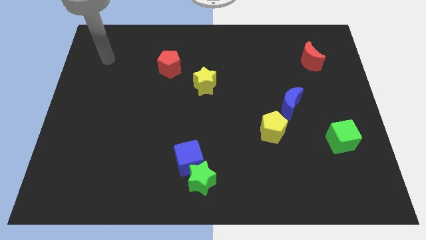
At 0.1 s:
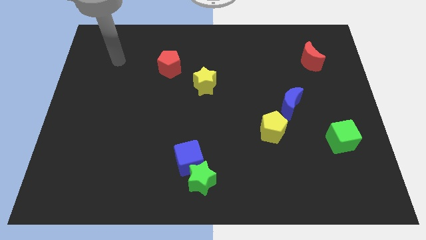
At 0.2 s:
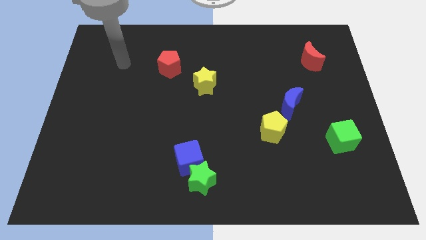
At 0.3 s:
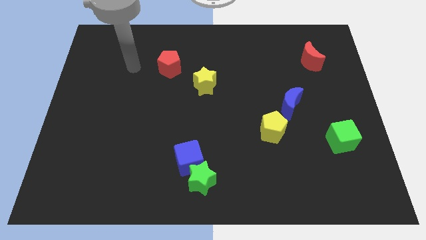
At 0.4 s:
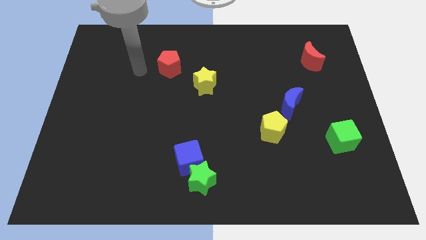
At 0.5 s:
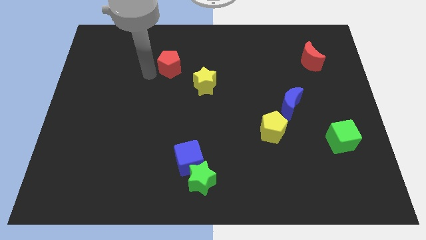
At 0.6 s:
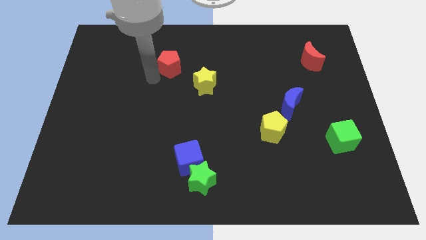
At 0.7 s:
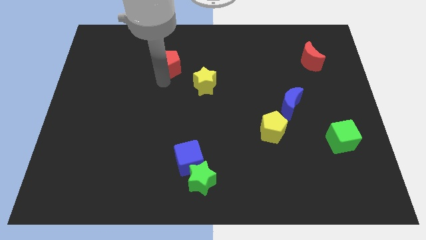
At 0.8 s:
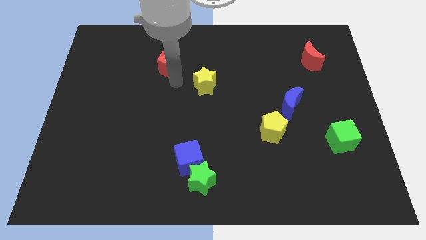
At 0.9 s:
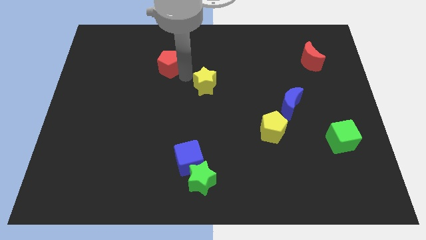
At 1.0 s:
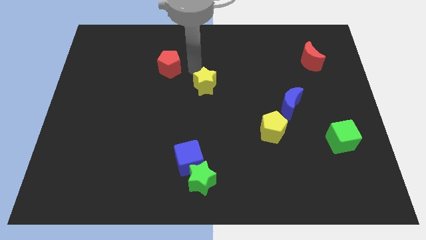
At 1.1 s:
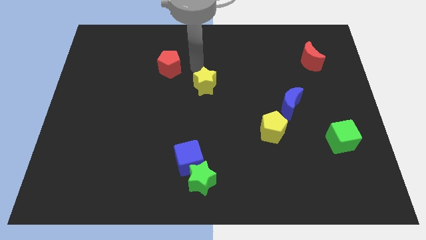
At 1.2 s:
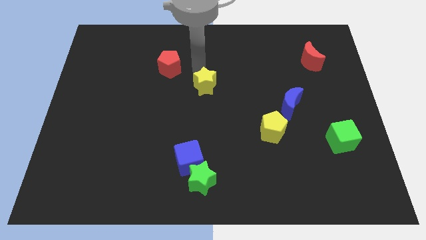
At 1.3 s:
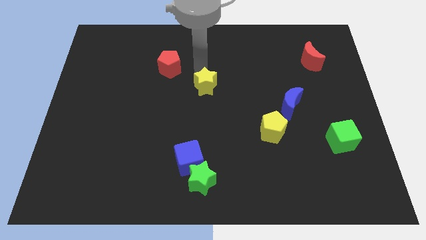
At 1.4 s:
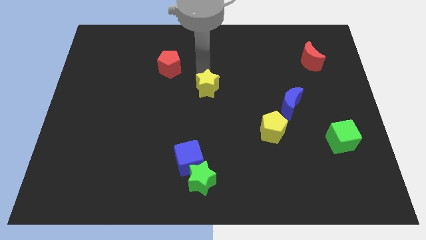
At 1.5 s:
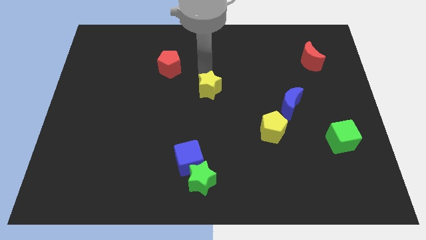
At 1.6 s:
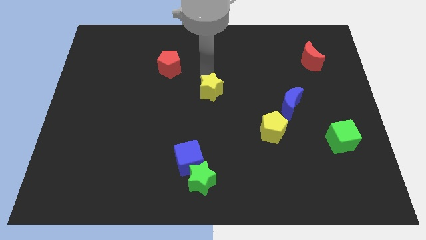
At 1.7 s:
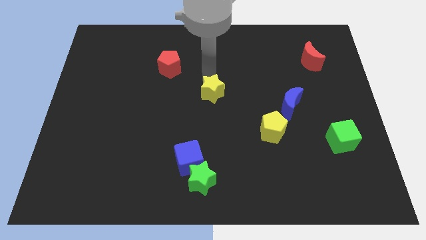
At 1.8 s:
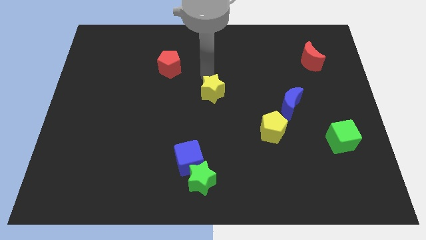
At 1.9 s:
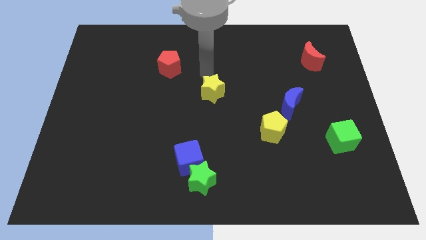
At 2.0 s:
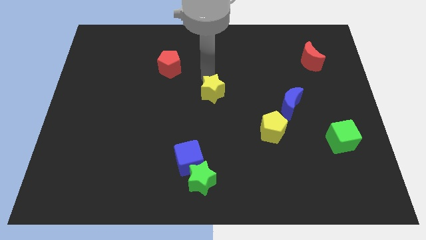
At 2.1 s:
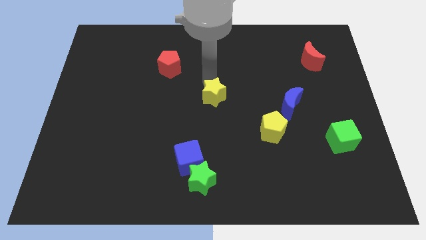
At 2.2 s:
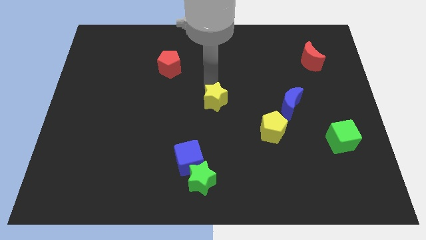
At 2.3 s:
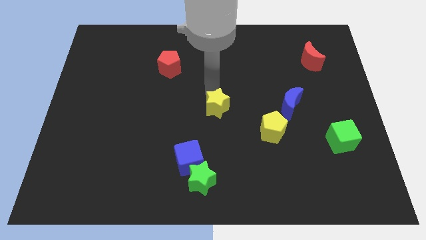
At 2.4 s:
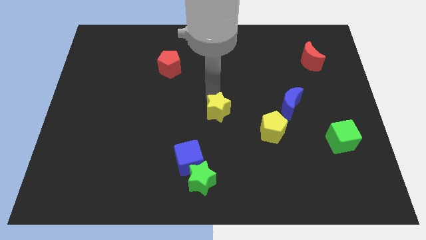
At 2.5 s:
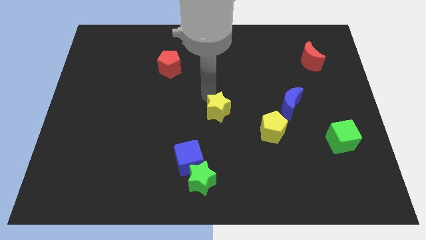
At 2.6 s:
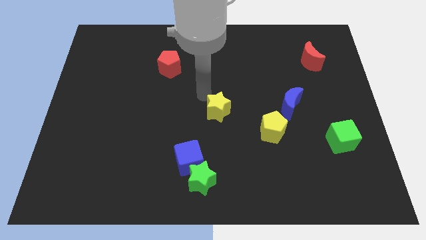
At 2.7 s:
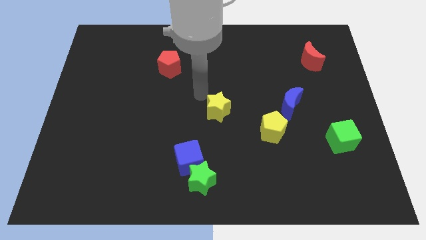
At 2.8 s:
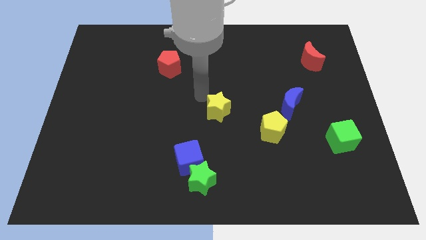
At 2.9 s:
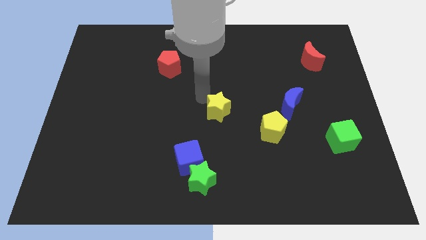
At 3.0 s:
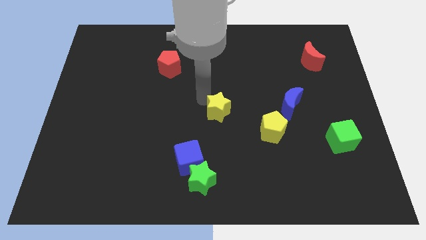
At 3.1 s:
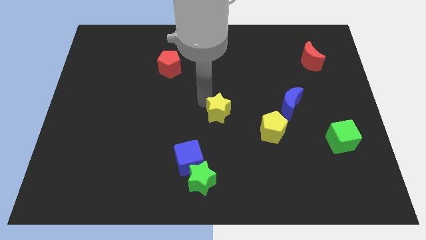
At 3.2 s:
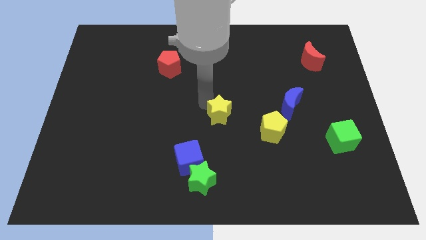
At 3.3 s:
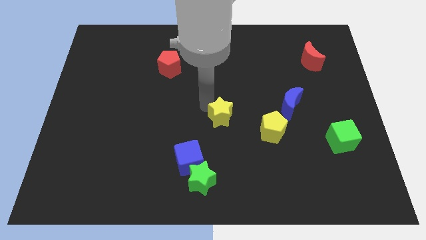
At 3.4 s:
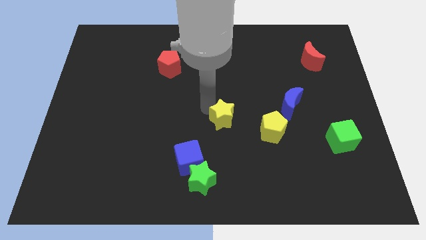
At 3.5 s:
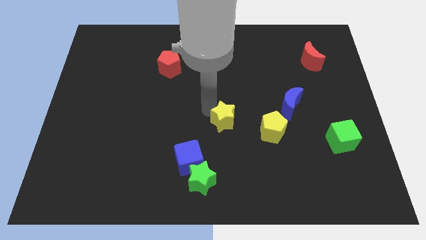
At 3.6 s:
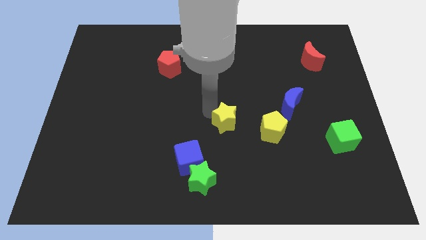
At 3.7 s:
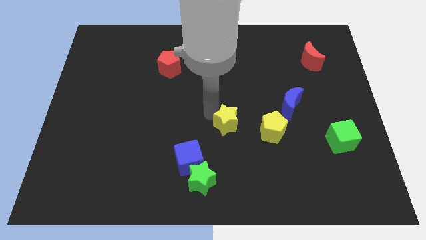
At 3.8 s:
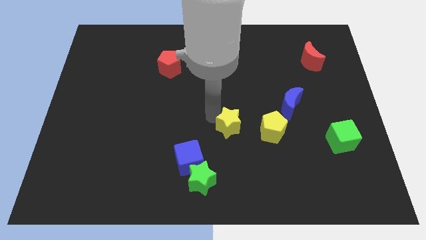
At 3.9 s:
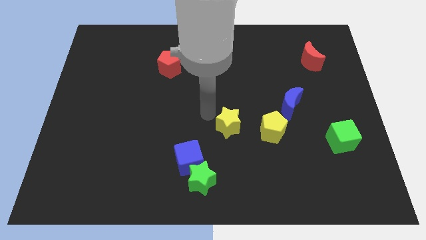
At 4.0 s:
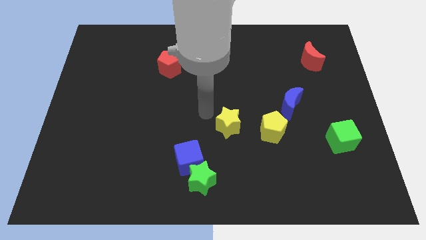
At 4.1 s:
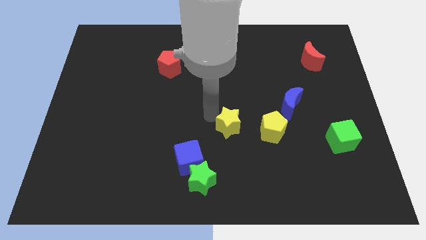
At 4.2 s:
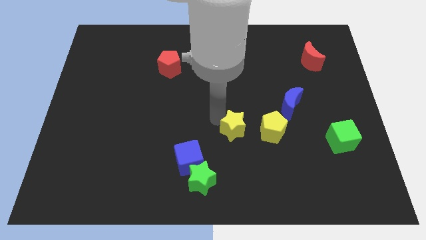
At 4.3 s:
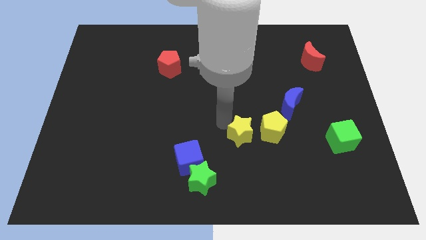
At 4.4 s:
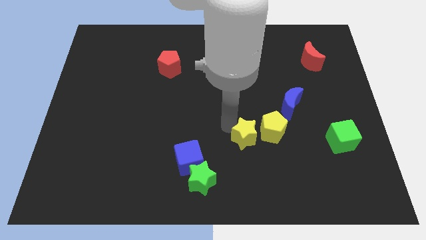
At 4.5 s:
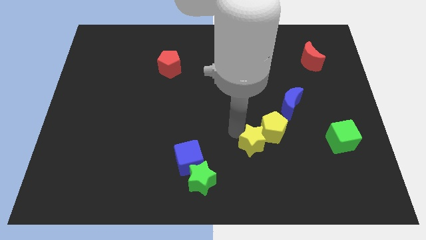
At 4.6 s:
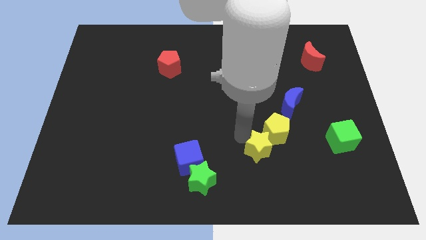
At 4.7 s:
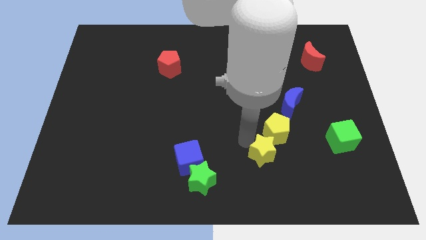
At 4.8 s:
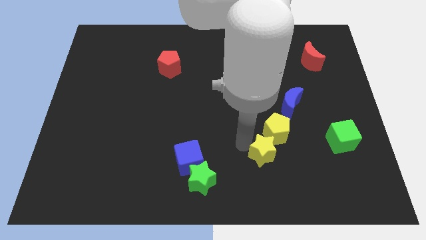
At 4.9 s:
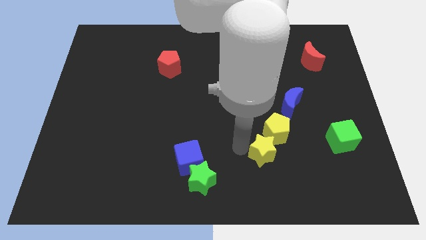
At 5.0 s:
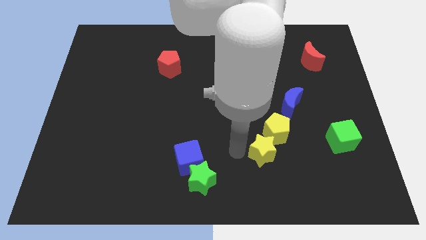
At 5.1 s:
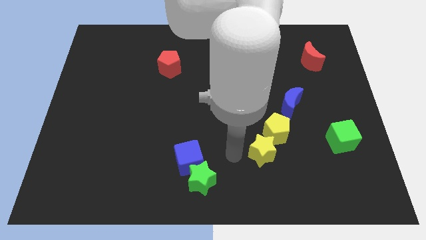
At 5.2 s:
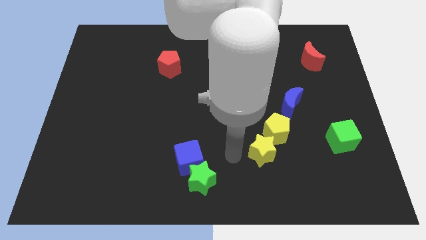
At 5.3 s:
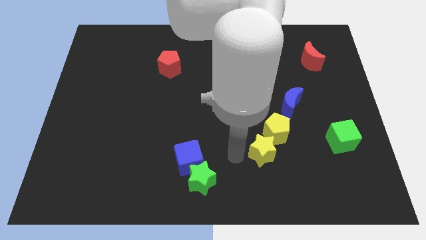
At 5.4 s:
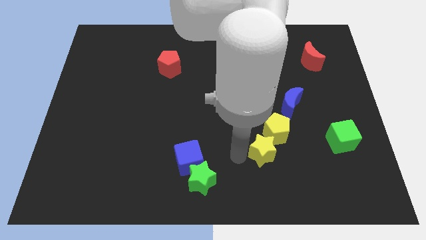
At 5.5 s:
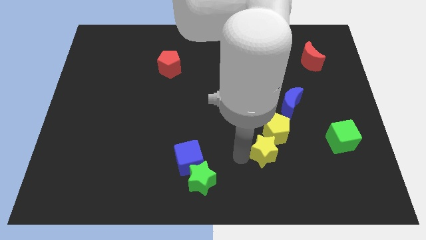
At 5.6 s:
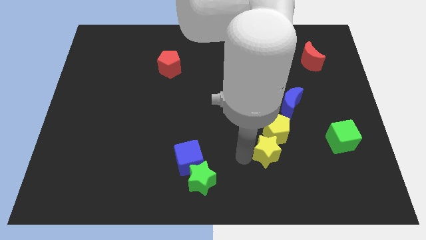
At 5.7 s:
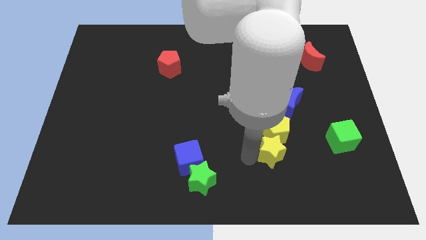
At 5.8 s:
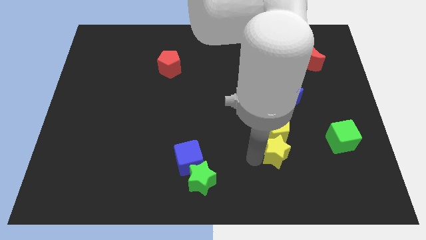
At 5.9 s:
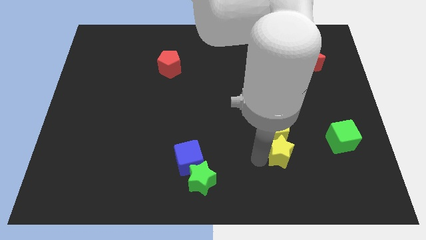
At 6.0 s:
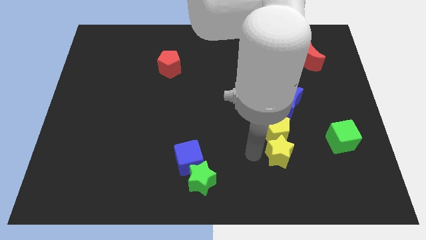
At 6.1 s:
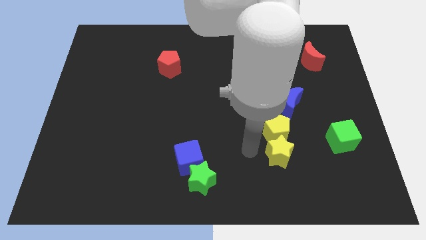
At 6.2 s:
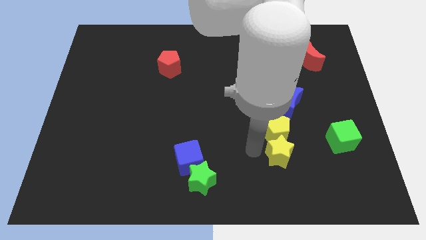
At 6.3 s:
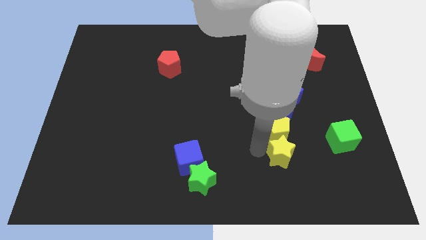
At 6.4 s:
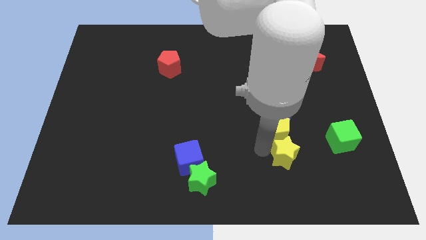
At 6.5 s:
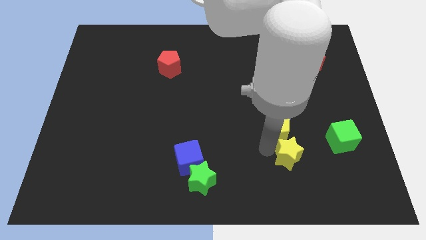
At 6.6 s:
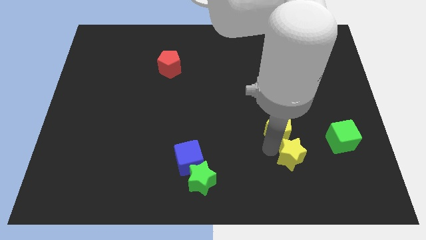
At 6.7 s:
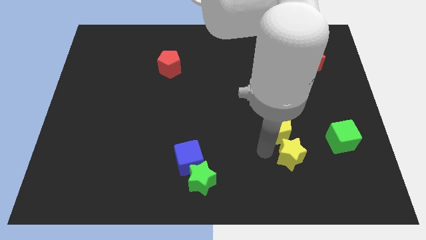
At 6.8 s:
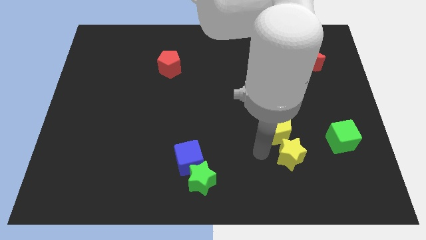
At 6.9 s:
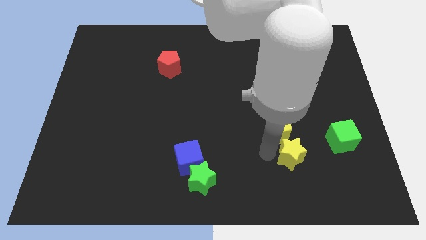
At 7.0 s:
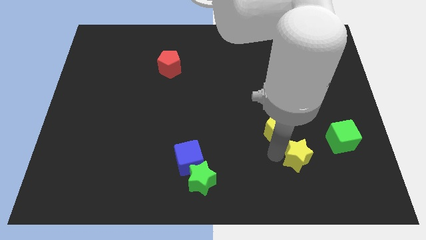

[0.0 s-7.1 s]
put the yellow star diagonally down and to the left of the green cube
